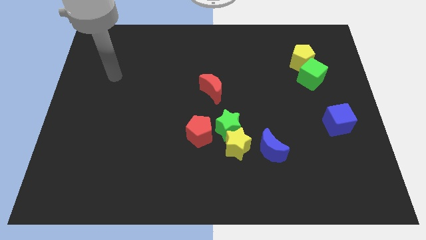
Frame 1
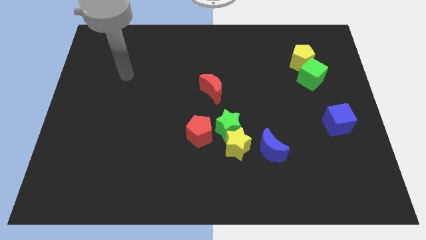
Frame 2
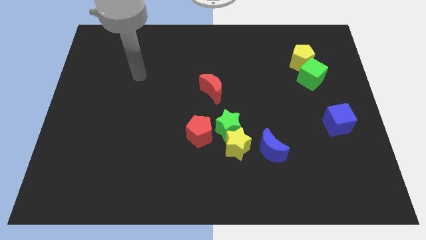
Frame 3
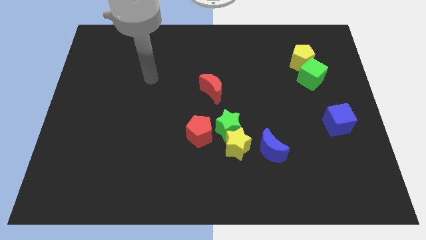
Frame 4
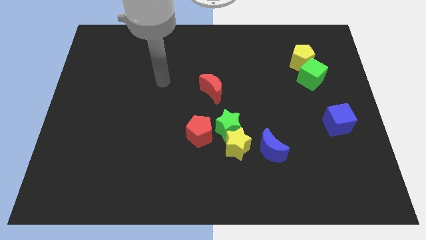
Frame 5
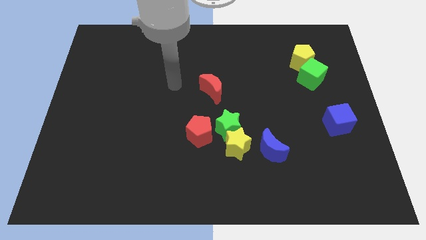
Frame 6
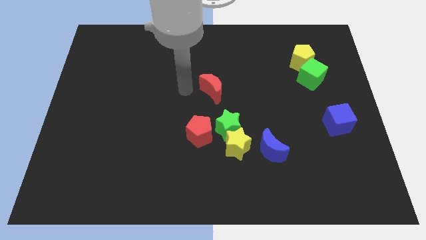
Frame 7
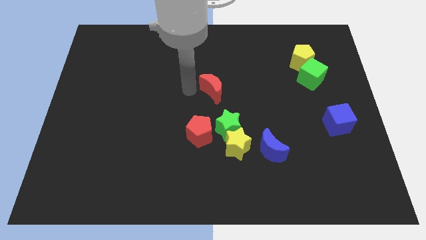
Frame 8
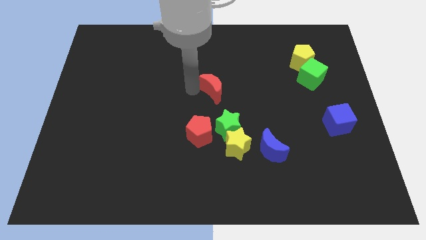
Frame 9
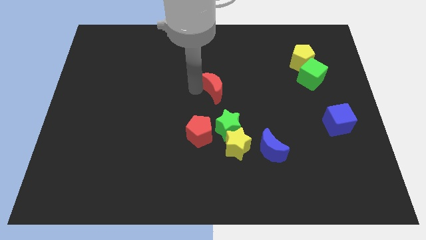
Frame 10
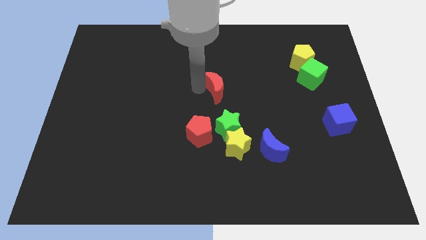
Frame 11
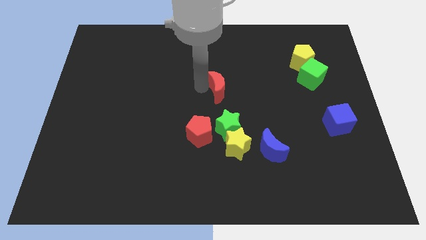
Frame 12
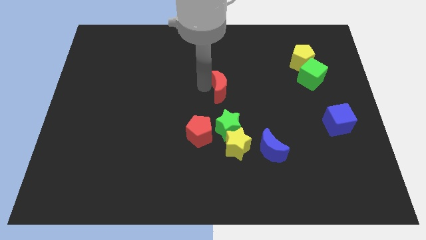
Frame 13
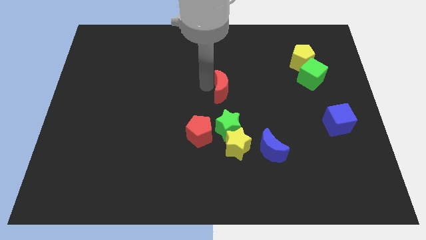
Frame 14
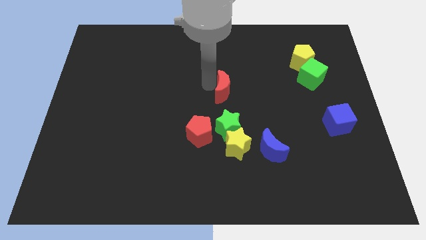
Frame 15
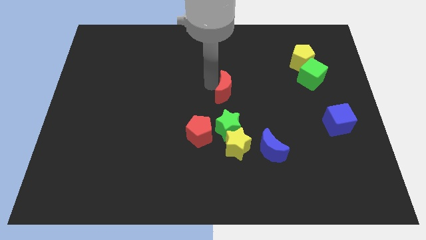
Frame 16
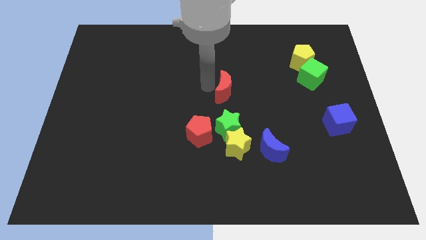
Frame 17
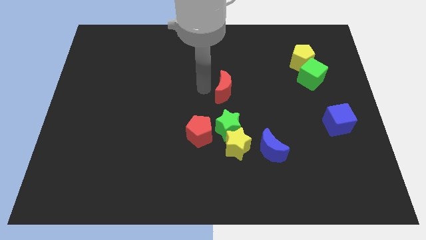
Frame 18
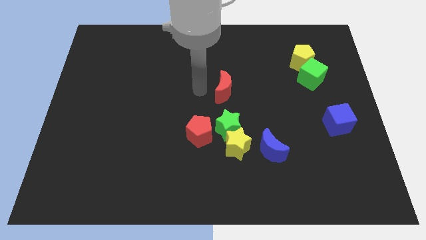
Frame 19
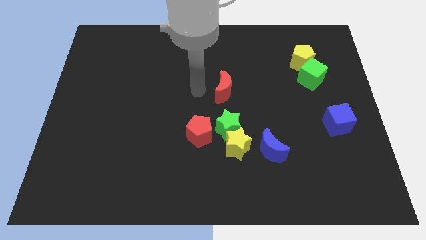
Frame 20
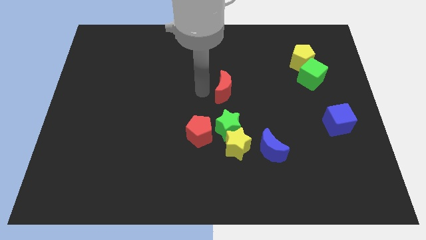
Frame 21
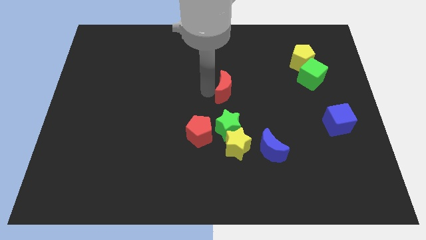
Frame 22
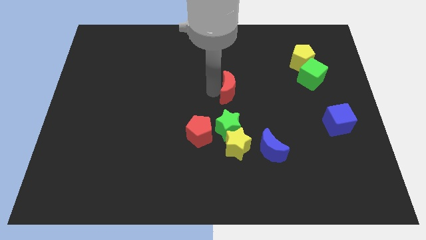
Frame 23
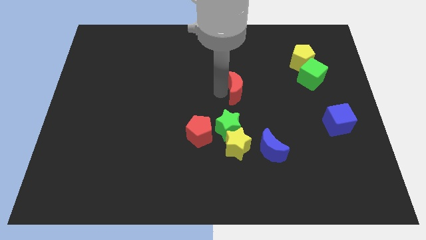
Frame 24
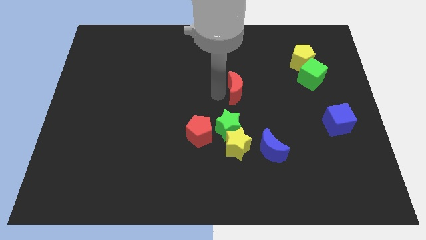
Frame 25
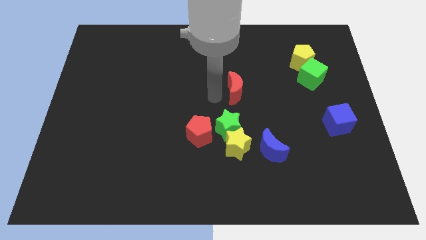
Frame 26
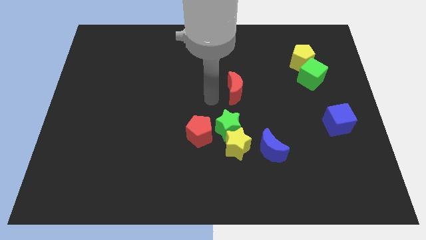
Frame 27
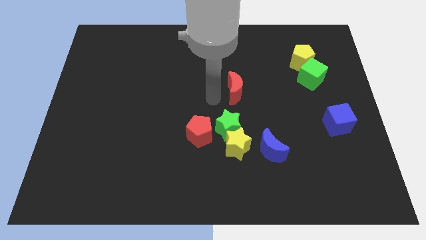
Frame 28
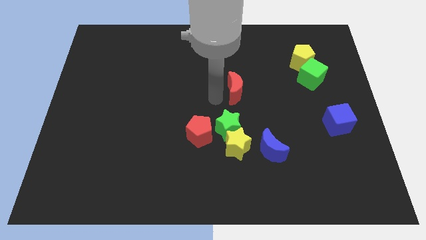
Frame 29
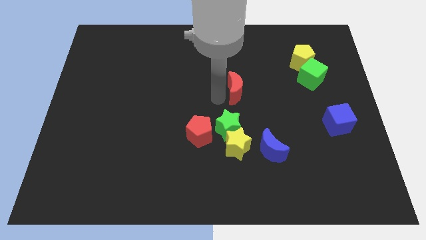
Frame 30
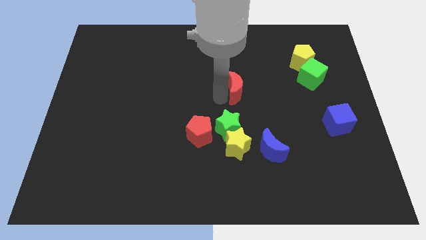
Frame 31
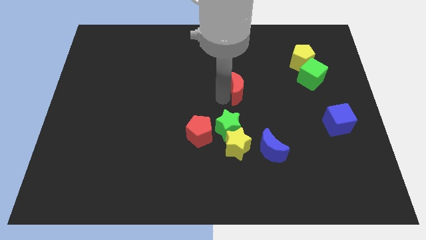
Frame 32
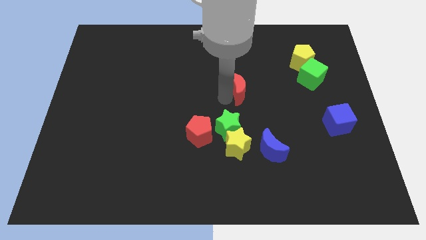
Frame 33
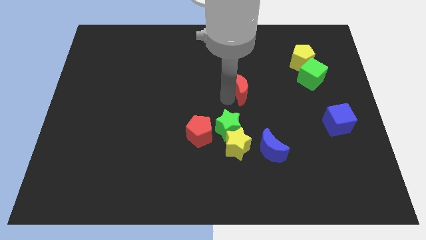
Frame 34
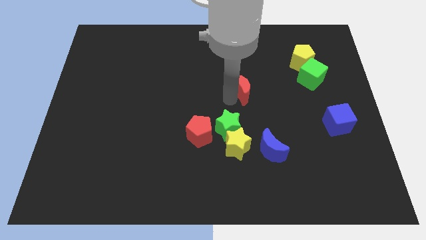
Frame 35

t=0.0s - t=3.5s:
slide the red moon right a little bit

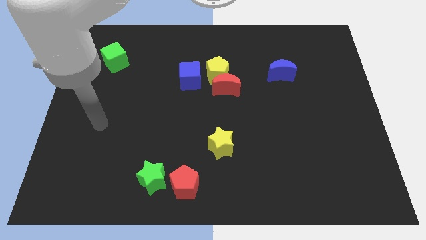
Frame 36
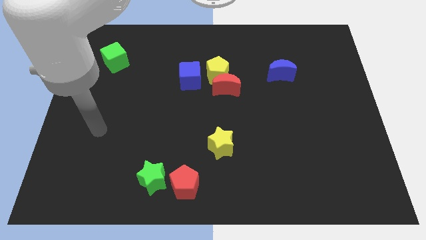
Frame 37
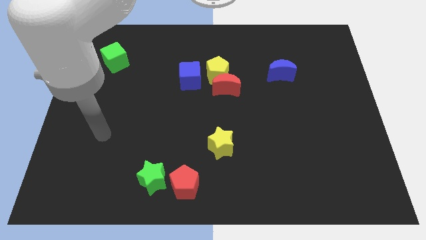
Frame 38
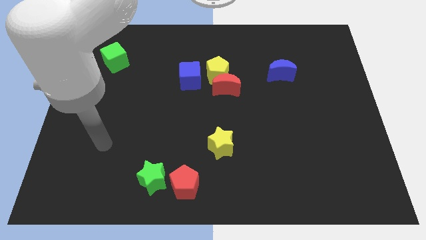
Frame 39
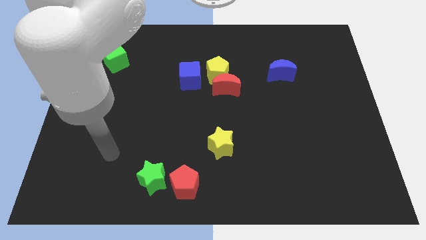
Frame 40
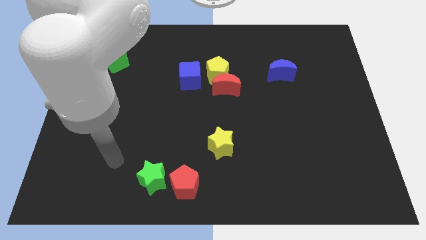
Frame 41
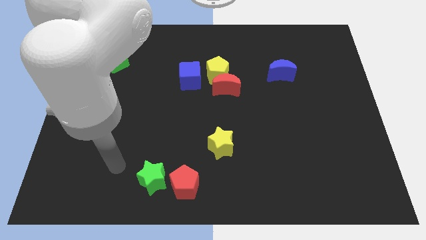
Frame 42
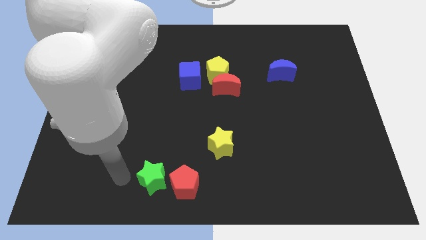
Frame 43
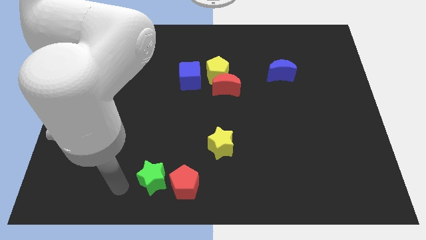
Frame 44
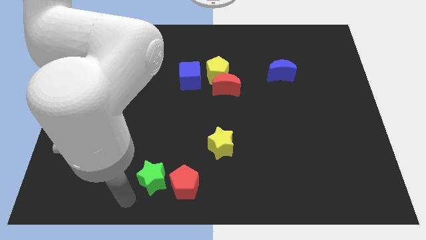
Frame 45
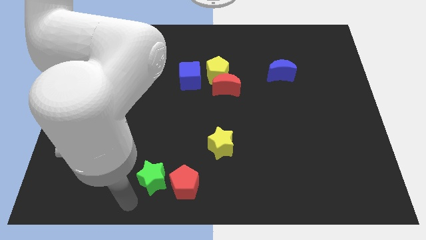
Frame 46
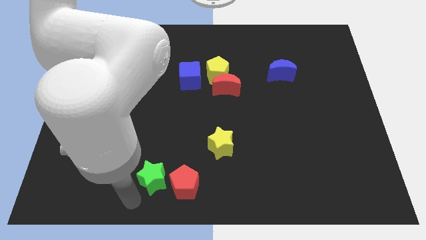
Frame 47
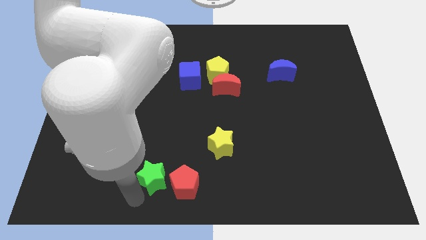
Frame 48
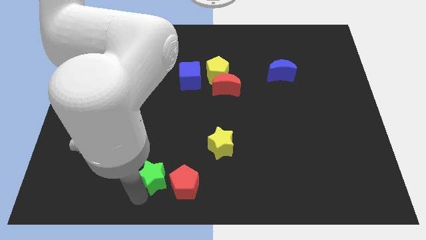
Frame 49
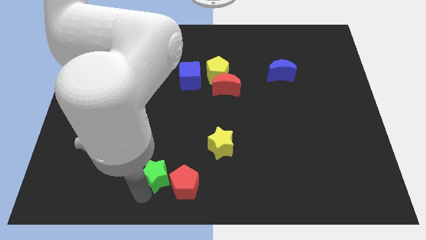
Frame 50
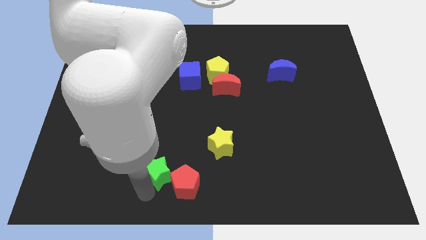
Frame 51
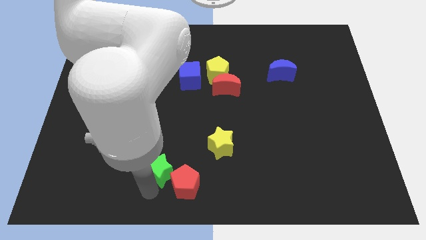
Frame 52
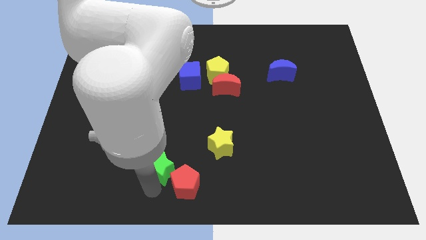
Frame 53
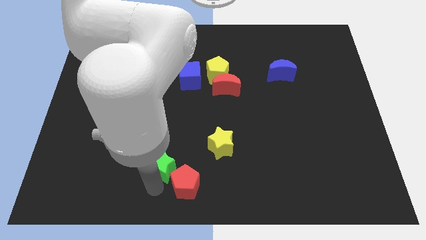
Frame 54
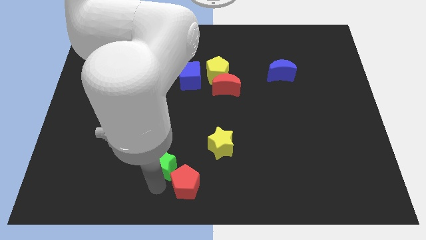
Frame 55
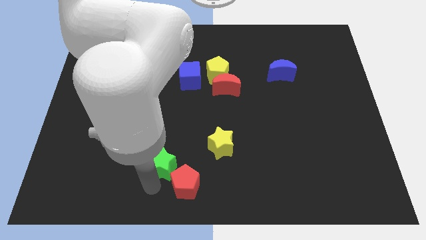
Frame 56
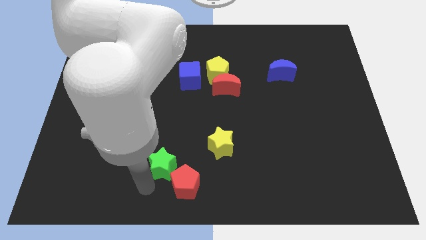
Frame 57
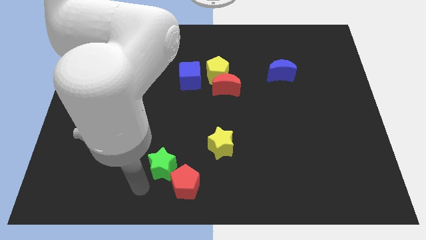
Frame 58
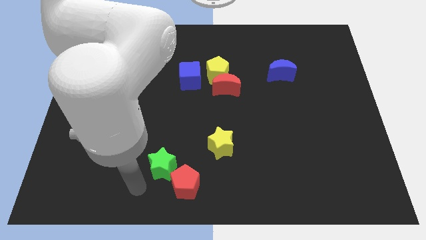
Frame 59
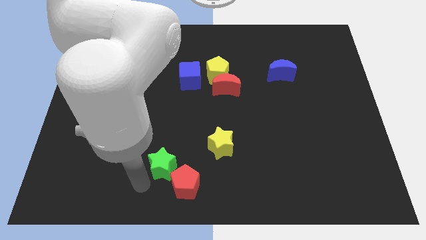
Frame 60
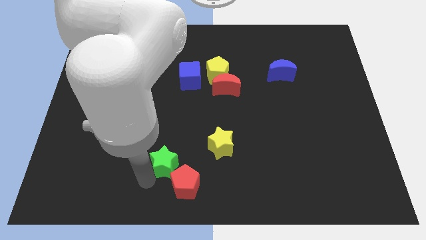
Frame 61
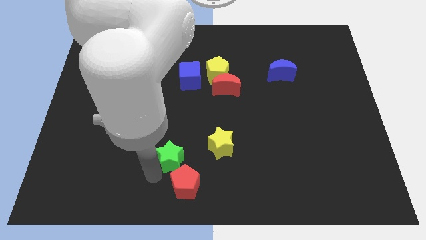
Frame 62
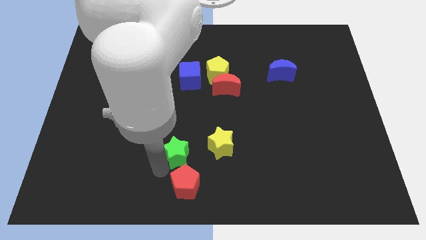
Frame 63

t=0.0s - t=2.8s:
move the green star somewhat up and to the right diagonally

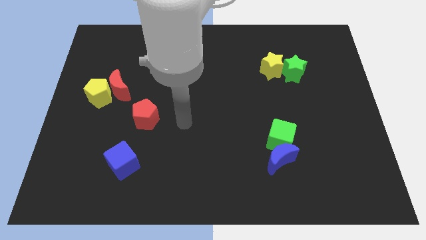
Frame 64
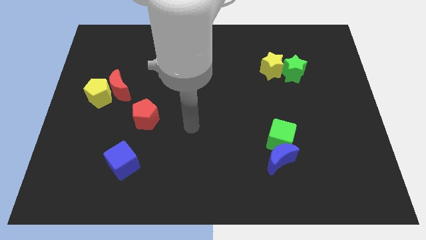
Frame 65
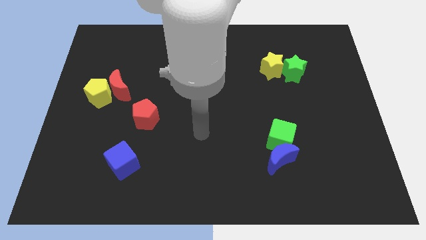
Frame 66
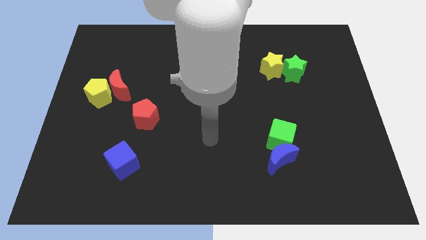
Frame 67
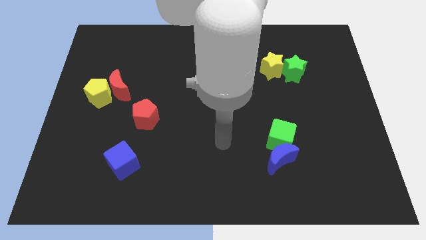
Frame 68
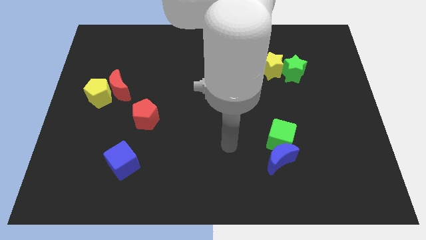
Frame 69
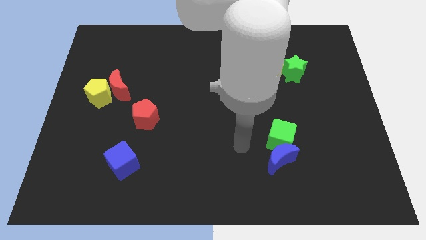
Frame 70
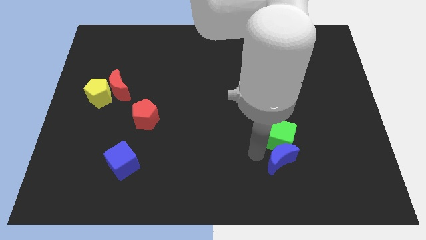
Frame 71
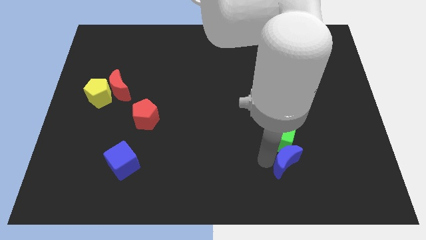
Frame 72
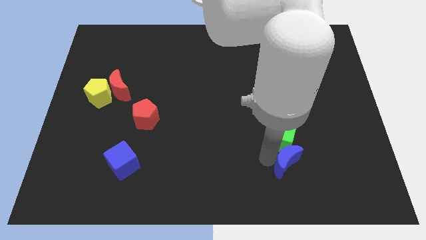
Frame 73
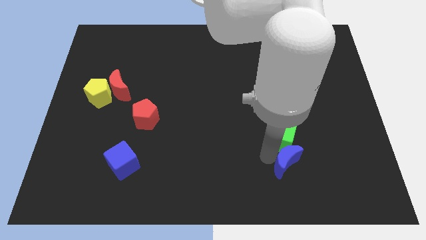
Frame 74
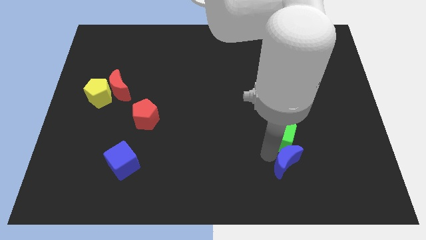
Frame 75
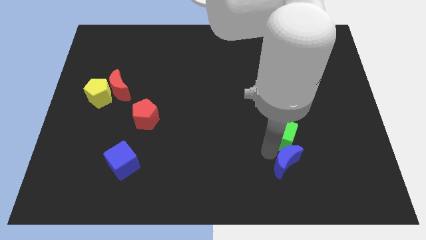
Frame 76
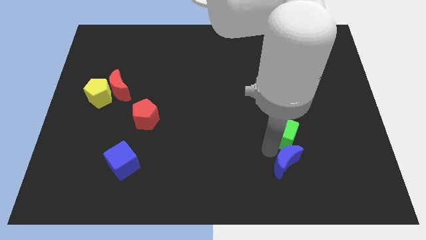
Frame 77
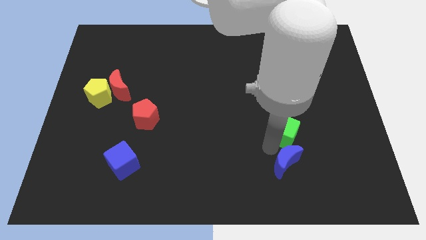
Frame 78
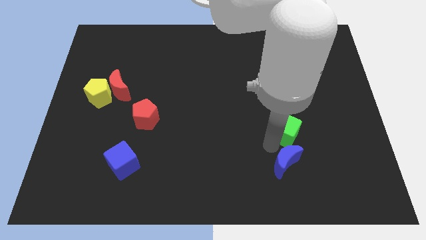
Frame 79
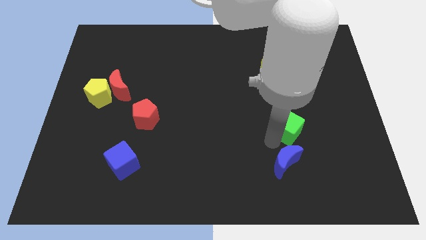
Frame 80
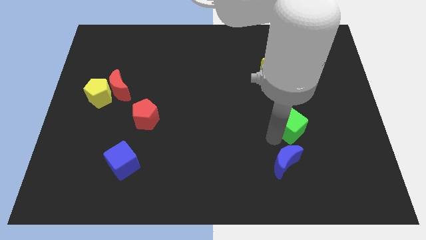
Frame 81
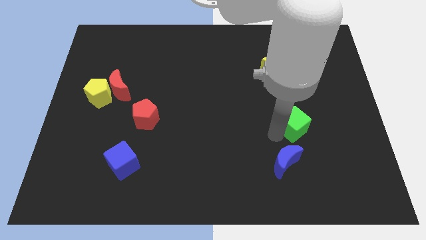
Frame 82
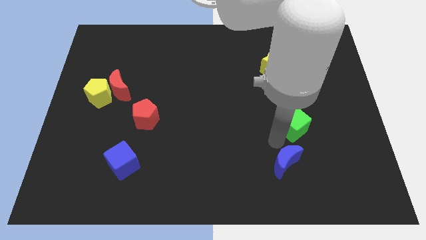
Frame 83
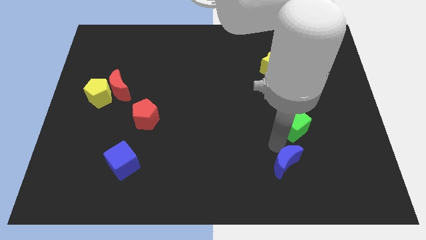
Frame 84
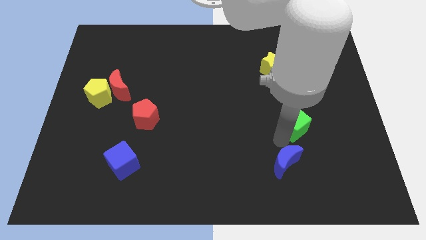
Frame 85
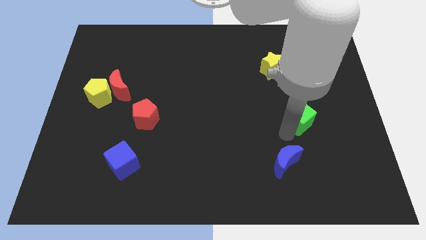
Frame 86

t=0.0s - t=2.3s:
slightly push the green cube diagonally upwards and to the right
